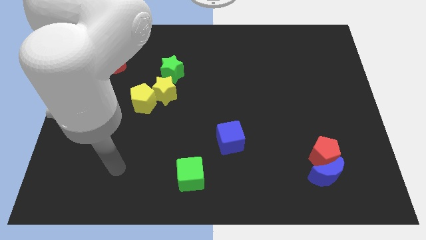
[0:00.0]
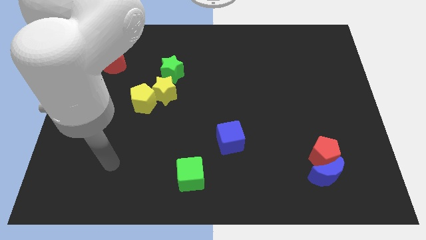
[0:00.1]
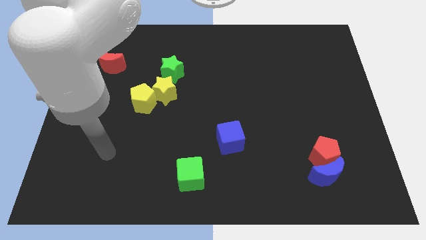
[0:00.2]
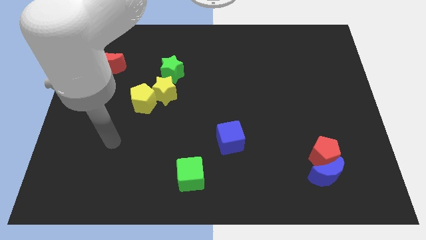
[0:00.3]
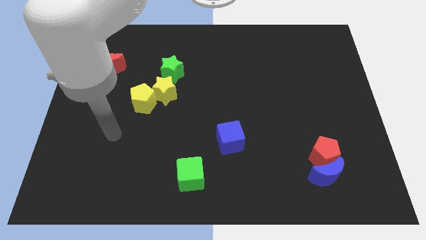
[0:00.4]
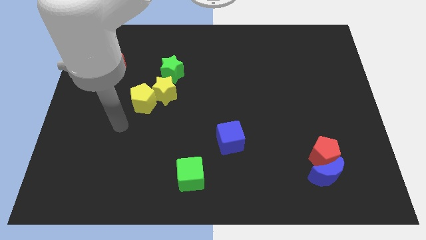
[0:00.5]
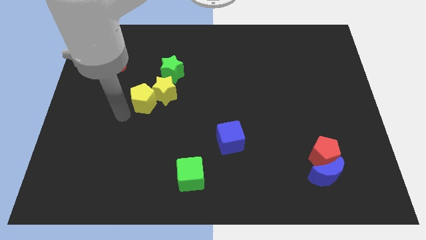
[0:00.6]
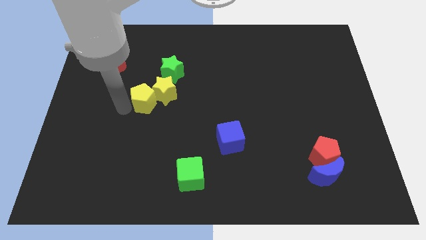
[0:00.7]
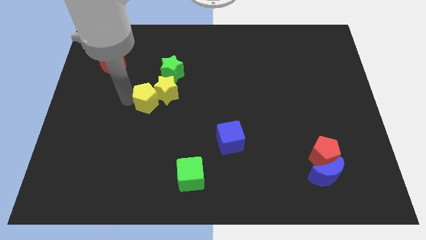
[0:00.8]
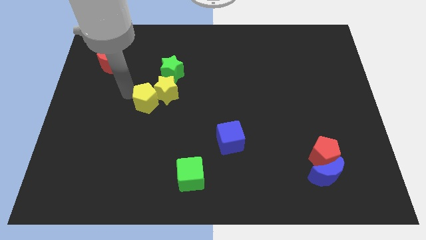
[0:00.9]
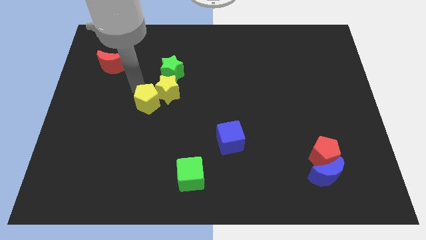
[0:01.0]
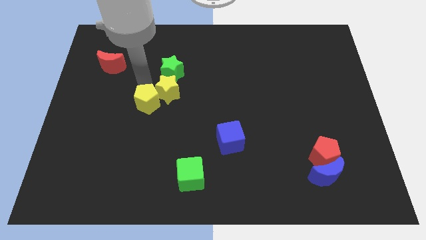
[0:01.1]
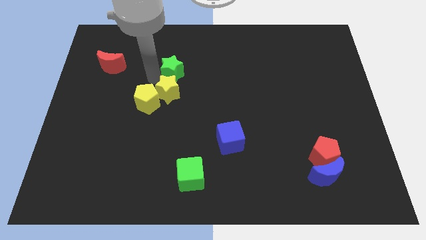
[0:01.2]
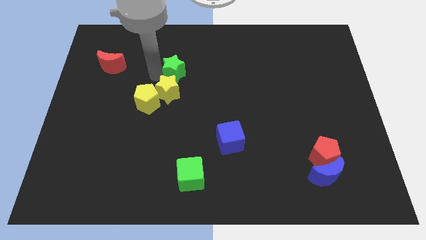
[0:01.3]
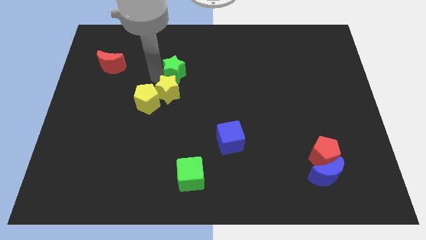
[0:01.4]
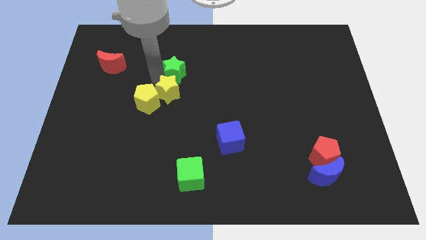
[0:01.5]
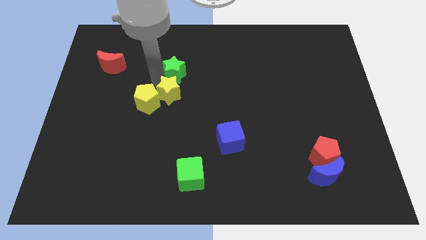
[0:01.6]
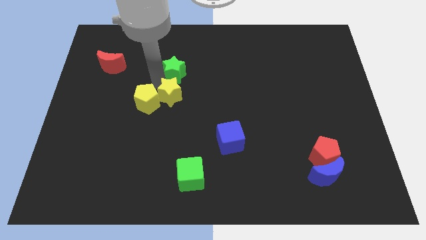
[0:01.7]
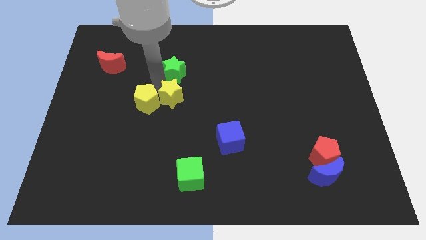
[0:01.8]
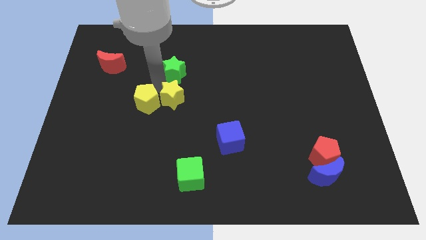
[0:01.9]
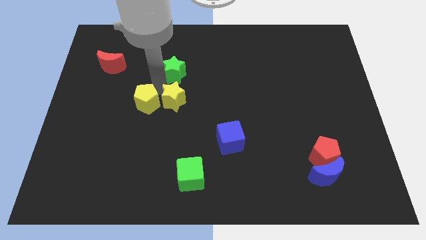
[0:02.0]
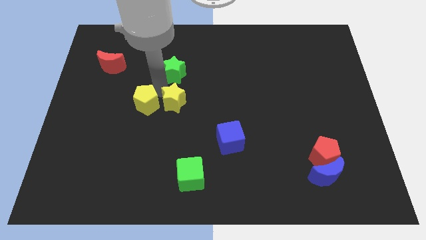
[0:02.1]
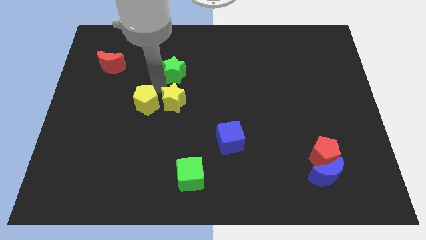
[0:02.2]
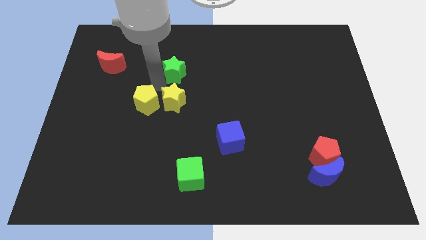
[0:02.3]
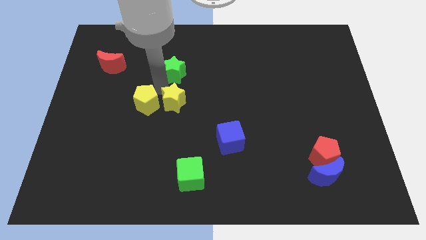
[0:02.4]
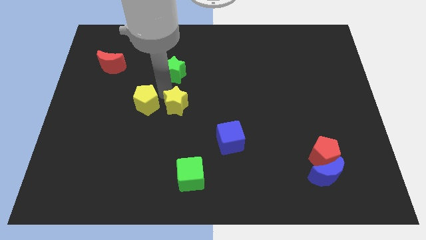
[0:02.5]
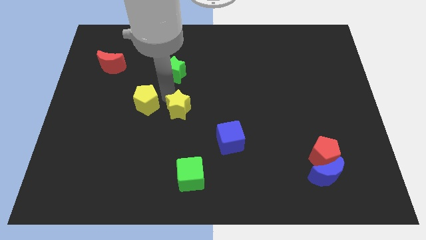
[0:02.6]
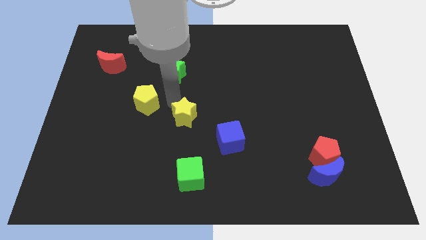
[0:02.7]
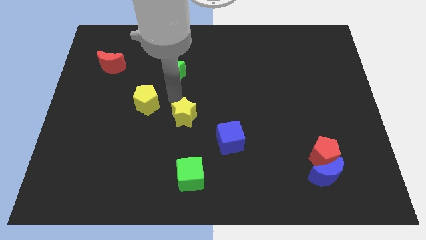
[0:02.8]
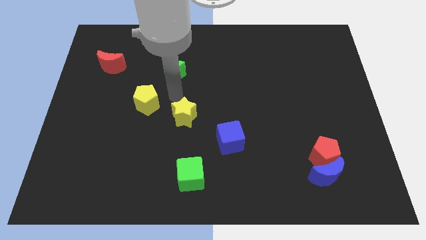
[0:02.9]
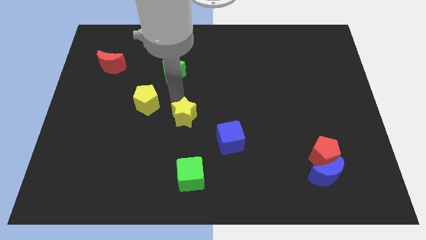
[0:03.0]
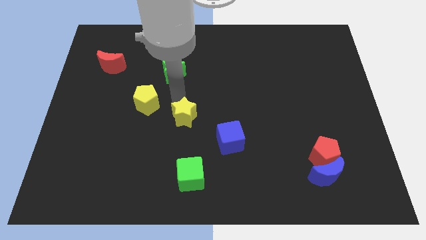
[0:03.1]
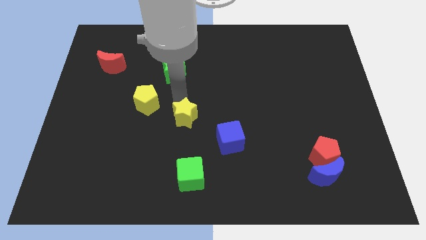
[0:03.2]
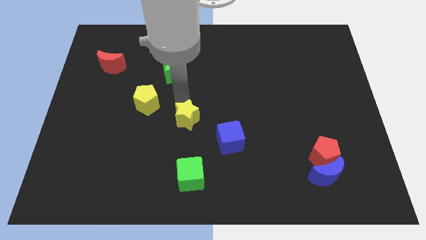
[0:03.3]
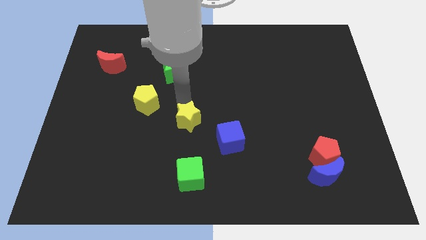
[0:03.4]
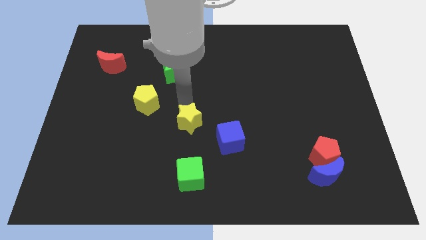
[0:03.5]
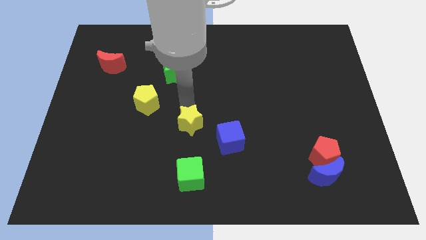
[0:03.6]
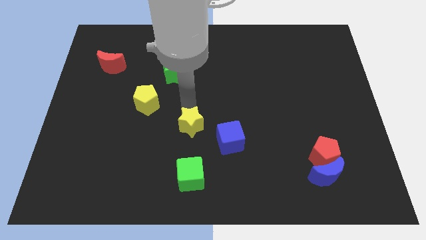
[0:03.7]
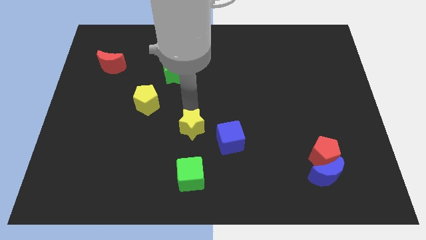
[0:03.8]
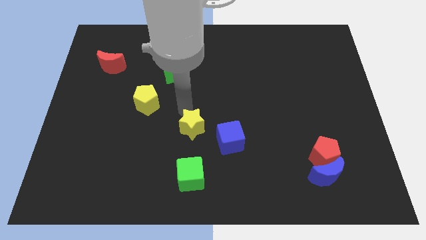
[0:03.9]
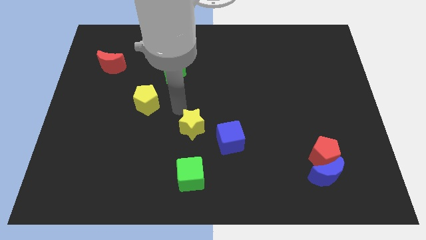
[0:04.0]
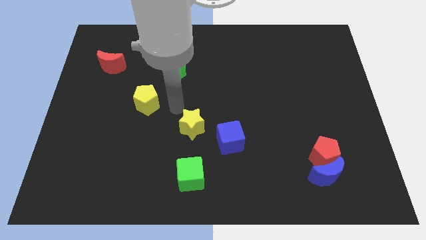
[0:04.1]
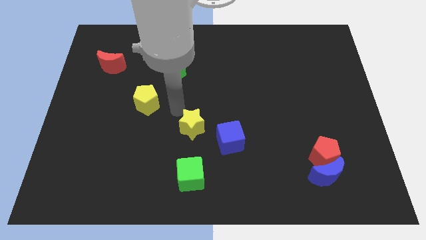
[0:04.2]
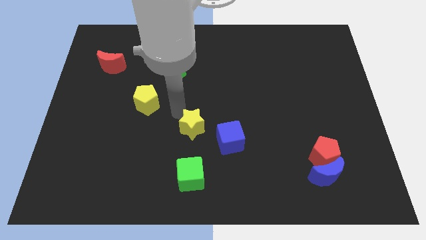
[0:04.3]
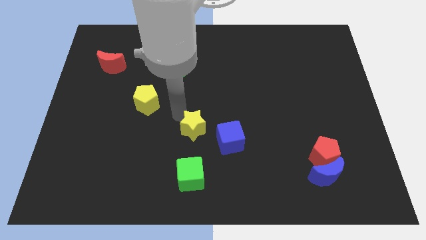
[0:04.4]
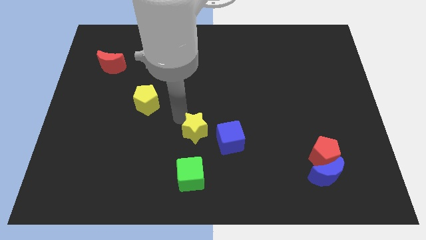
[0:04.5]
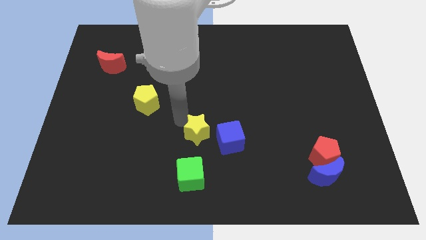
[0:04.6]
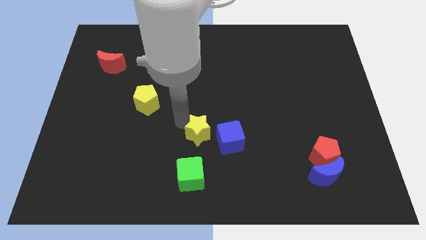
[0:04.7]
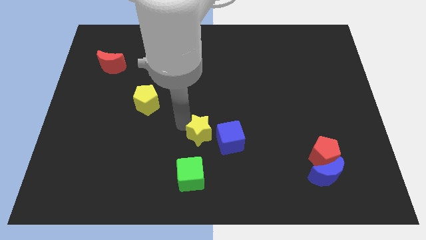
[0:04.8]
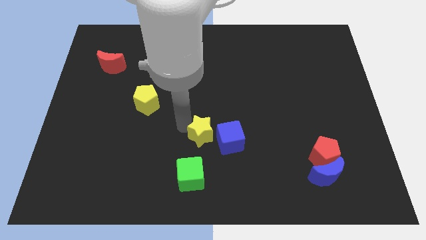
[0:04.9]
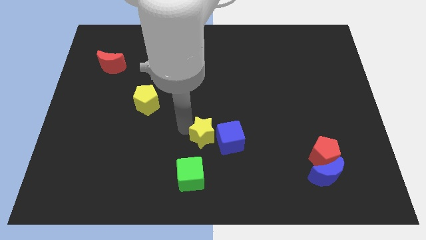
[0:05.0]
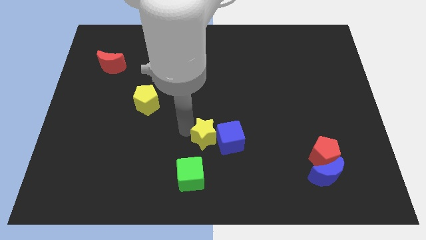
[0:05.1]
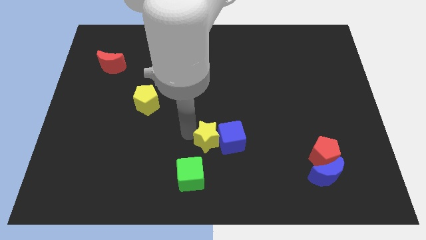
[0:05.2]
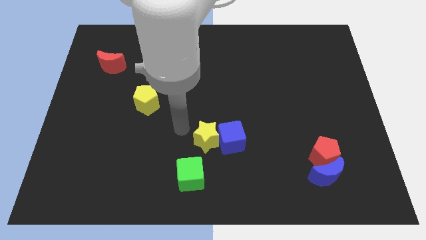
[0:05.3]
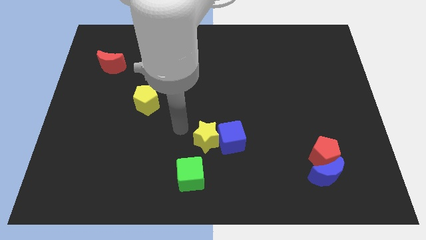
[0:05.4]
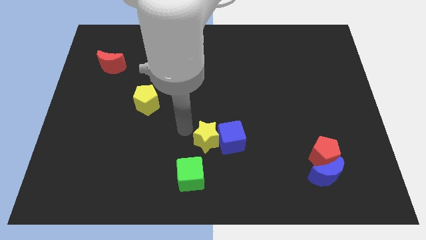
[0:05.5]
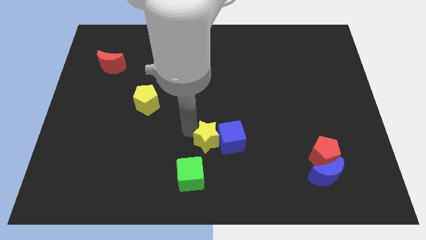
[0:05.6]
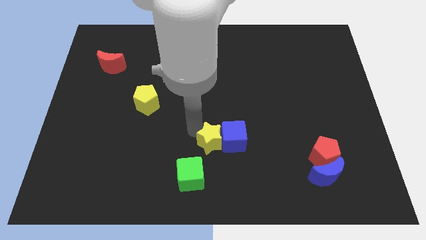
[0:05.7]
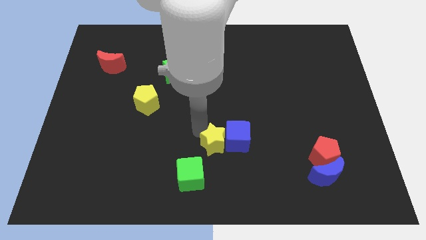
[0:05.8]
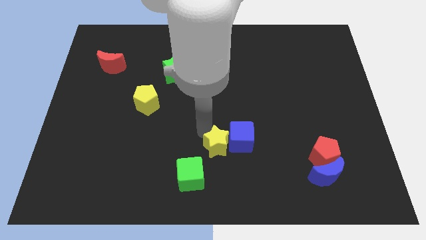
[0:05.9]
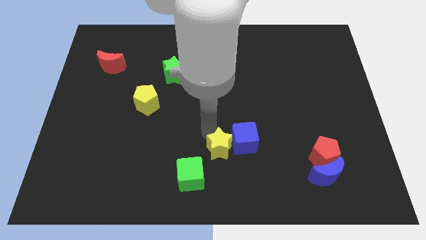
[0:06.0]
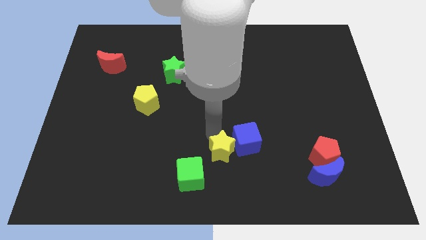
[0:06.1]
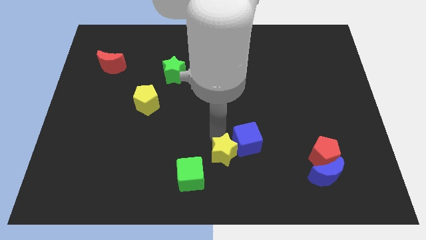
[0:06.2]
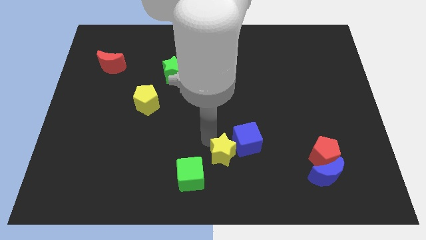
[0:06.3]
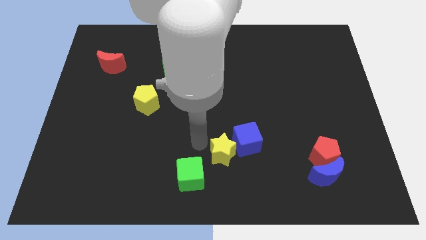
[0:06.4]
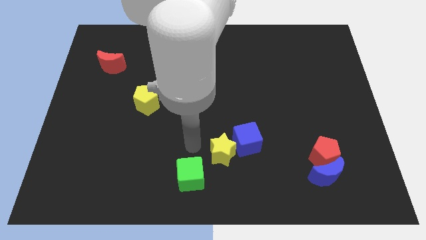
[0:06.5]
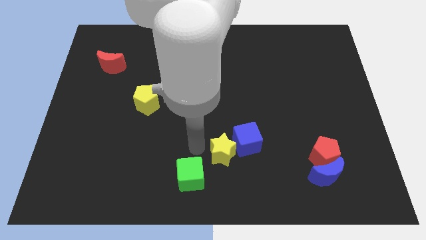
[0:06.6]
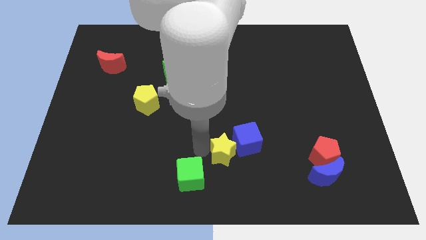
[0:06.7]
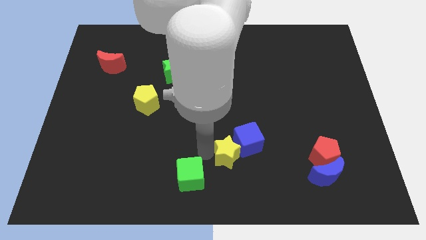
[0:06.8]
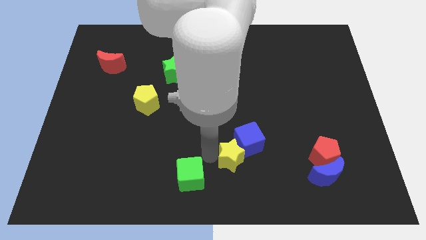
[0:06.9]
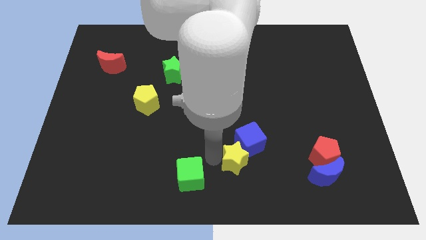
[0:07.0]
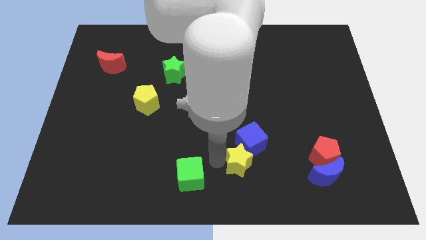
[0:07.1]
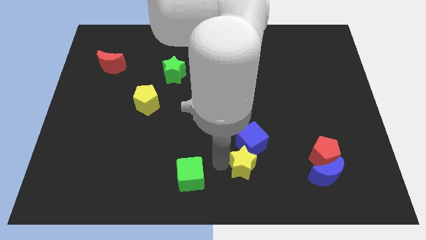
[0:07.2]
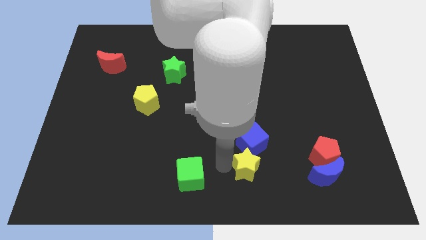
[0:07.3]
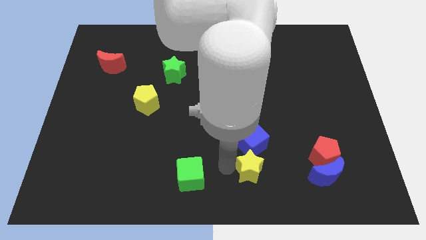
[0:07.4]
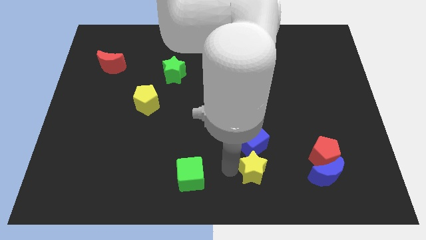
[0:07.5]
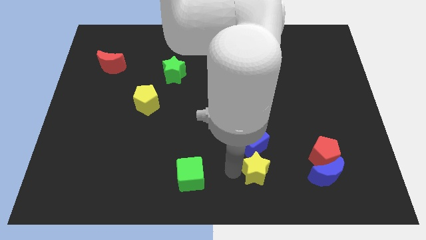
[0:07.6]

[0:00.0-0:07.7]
push the yellow star diagonally down and to the right of the blue cube
